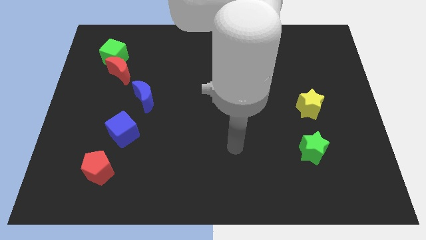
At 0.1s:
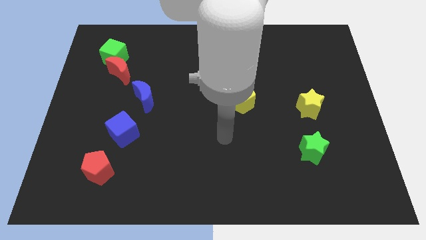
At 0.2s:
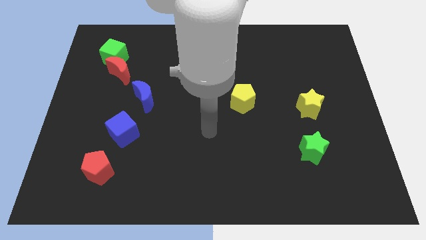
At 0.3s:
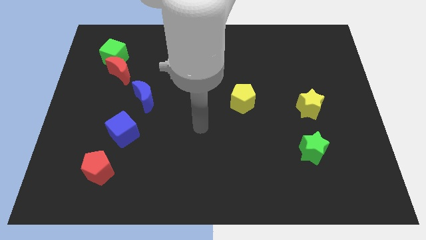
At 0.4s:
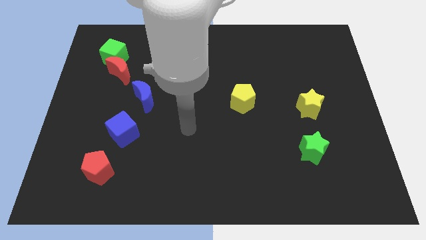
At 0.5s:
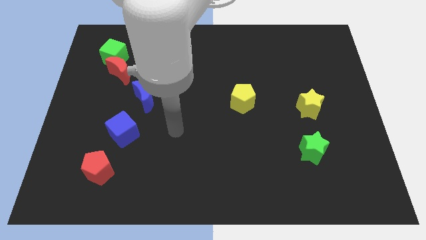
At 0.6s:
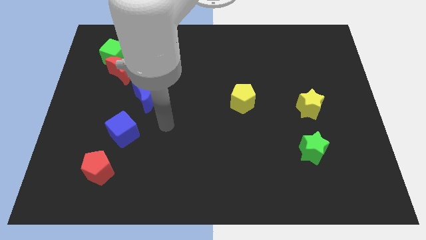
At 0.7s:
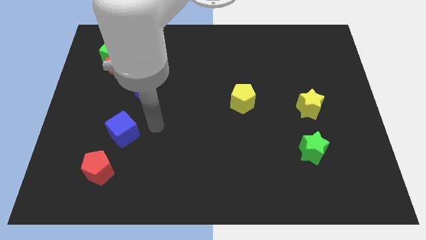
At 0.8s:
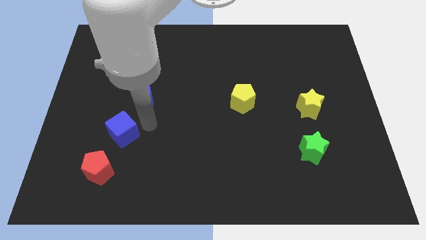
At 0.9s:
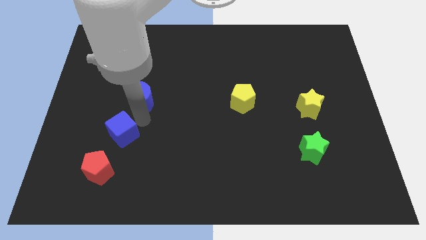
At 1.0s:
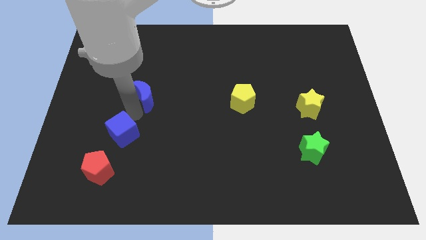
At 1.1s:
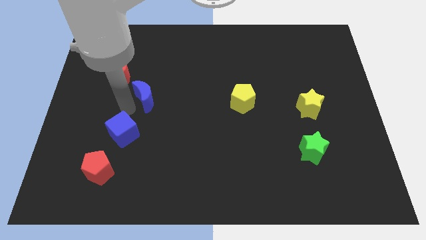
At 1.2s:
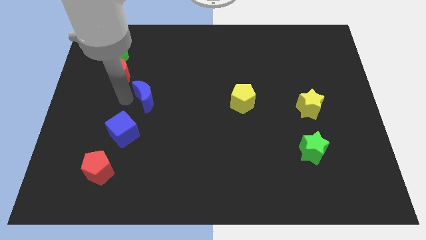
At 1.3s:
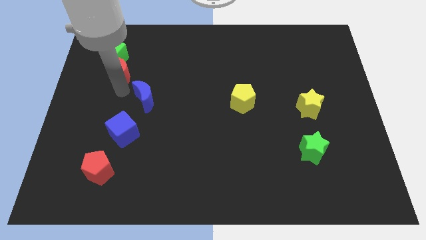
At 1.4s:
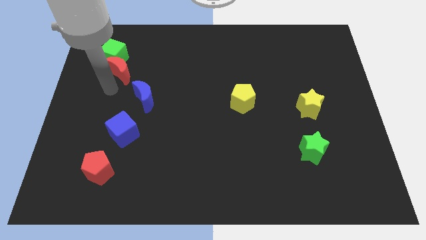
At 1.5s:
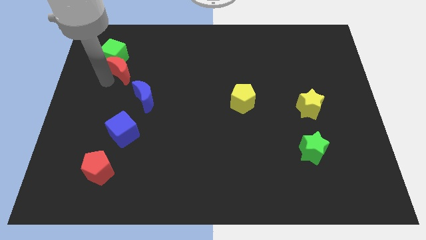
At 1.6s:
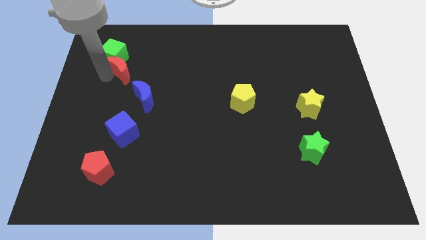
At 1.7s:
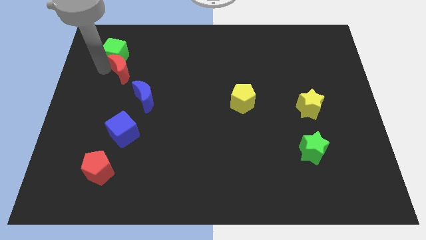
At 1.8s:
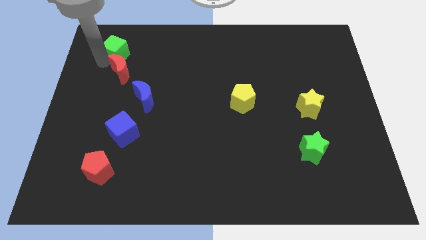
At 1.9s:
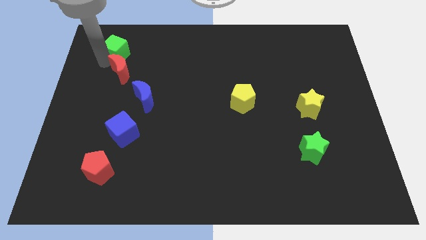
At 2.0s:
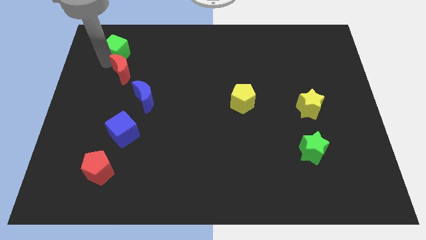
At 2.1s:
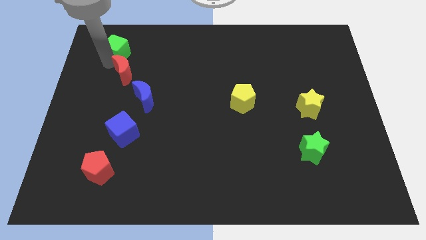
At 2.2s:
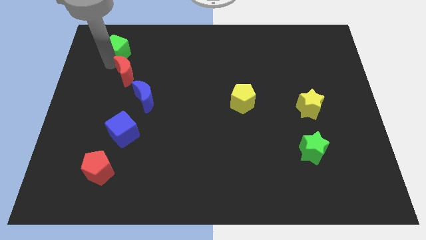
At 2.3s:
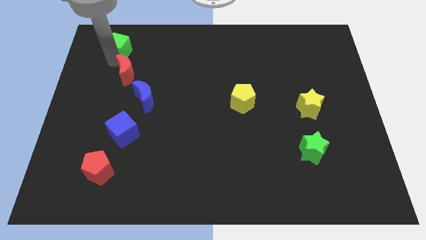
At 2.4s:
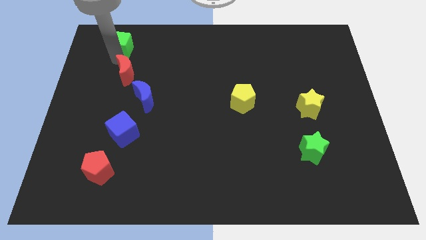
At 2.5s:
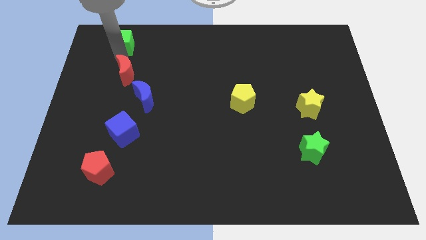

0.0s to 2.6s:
pull the red moon apart from the green cube

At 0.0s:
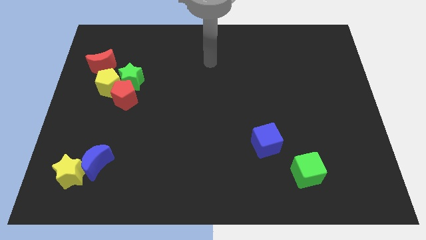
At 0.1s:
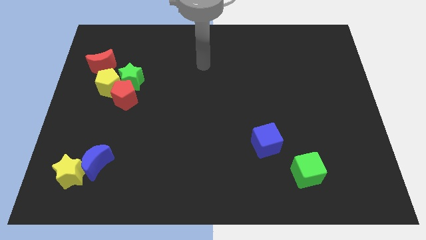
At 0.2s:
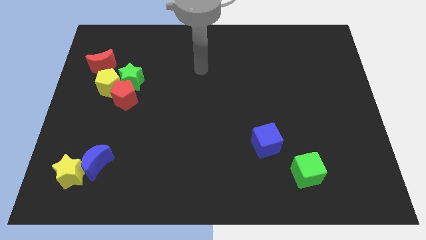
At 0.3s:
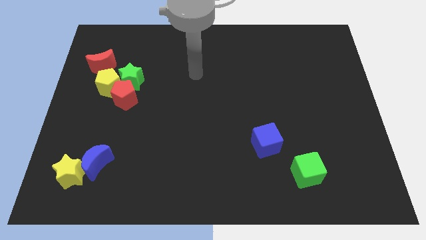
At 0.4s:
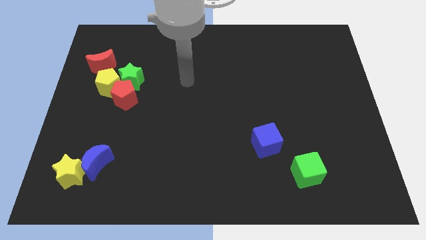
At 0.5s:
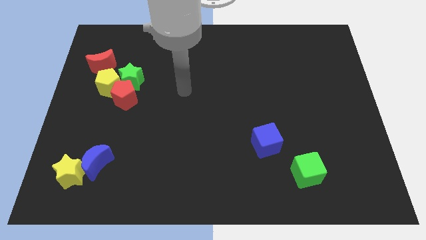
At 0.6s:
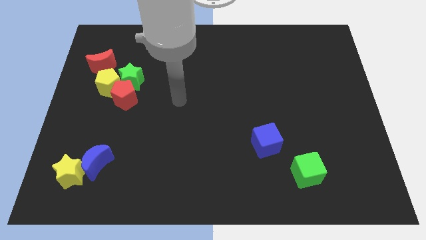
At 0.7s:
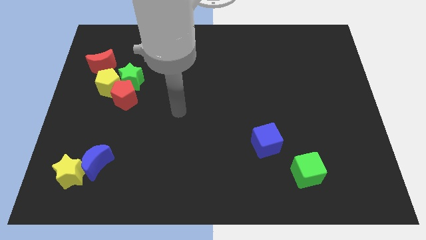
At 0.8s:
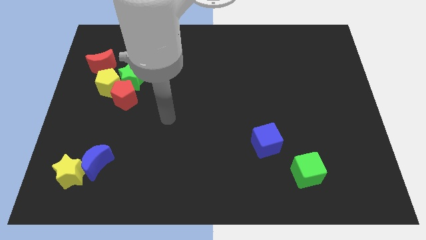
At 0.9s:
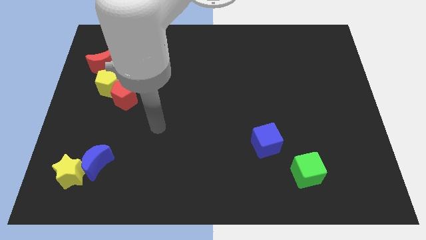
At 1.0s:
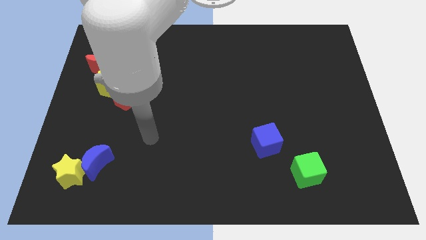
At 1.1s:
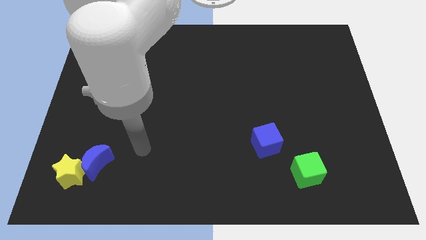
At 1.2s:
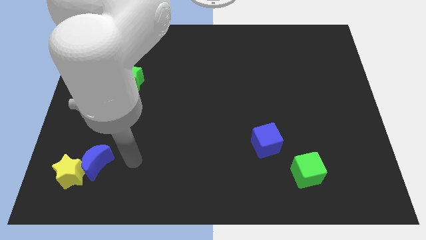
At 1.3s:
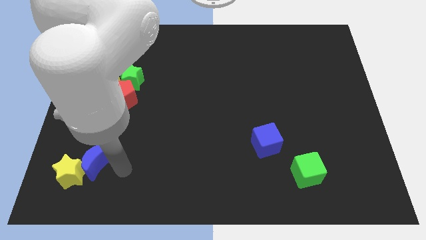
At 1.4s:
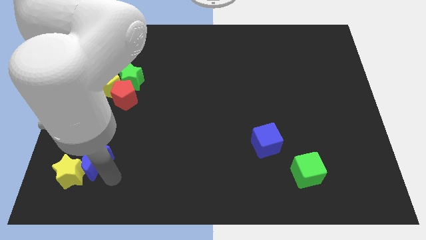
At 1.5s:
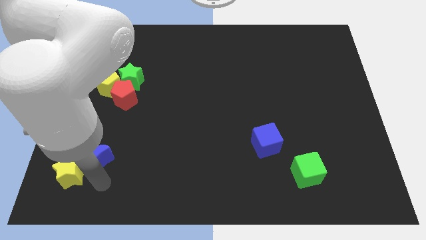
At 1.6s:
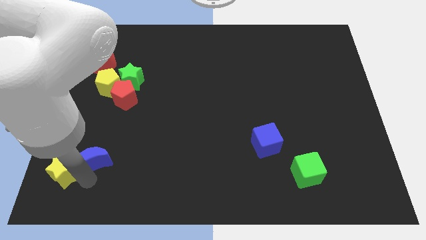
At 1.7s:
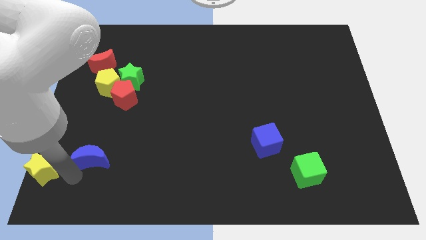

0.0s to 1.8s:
pull the blue moon apart from the yellow star

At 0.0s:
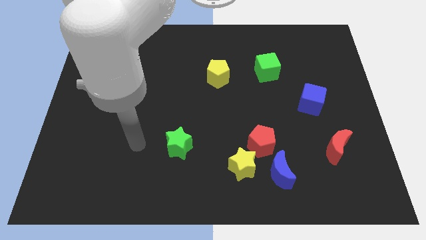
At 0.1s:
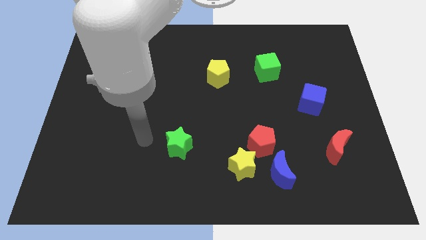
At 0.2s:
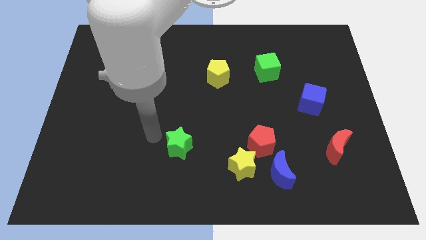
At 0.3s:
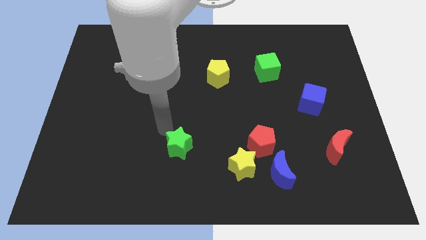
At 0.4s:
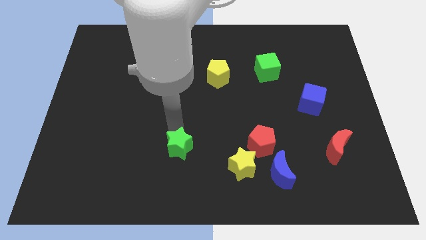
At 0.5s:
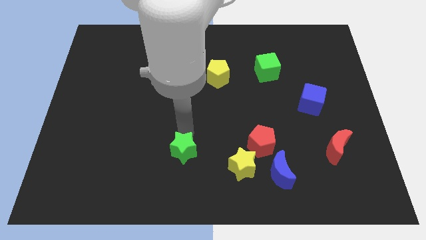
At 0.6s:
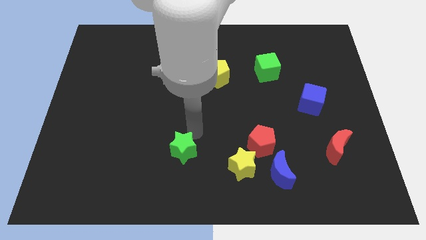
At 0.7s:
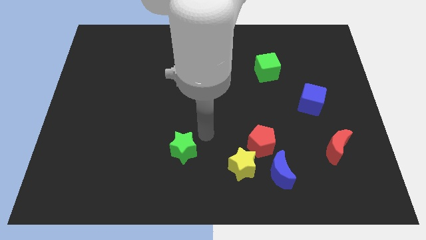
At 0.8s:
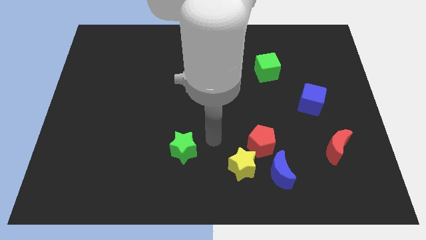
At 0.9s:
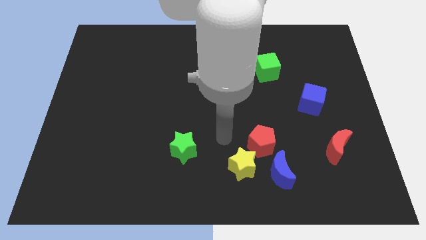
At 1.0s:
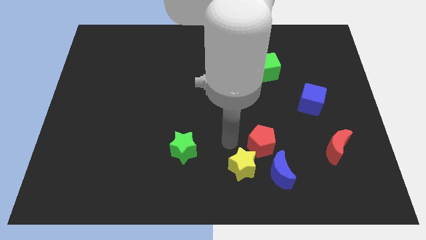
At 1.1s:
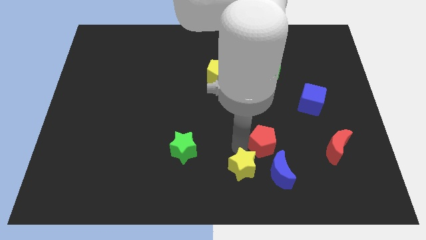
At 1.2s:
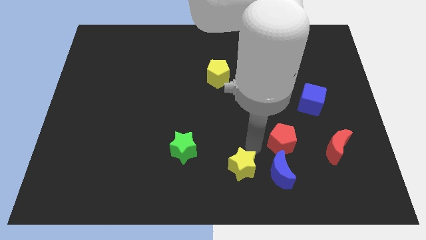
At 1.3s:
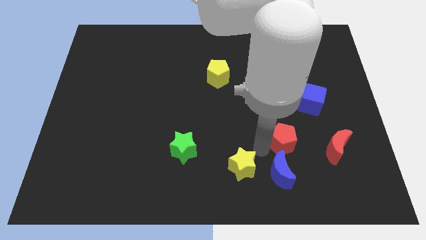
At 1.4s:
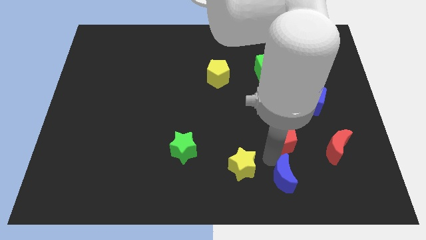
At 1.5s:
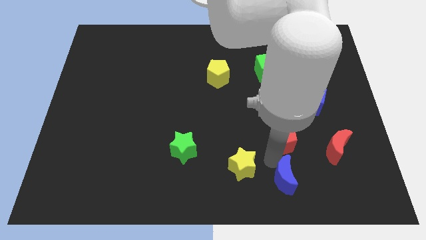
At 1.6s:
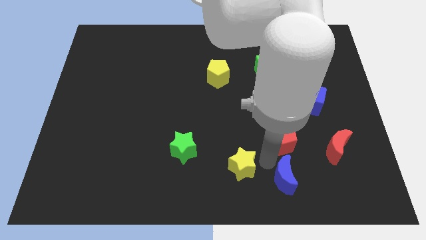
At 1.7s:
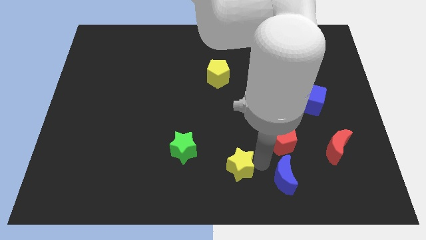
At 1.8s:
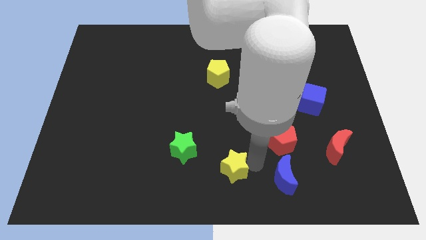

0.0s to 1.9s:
separate the yellow star from the red pentagon and blue moon

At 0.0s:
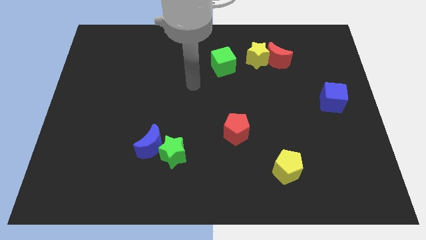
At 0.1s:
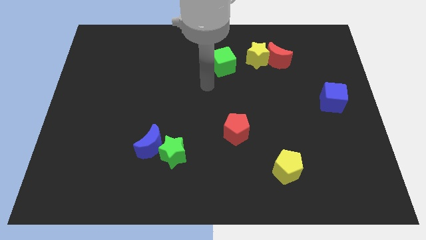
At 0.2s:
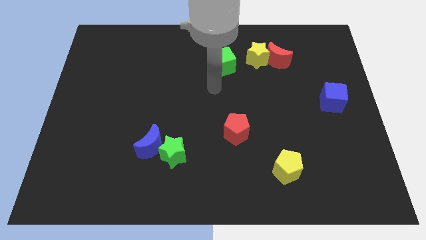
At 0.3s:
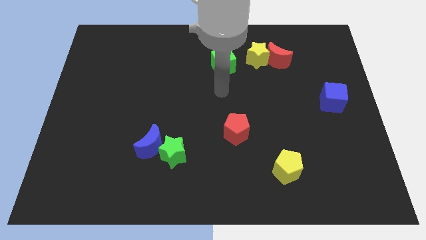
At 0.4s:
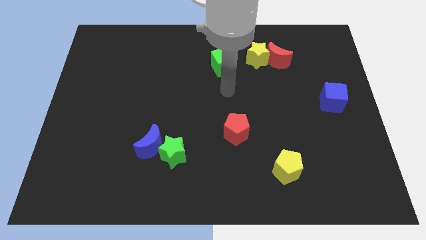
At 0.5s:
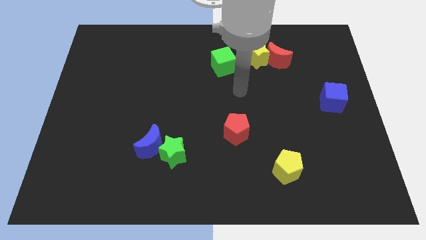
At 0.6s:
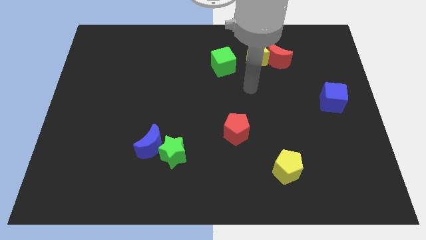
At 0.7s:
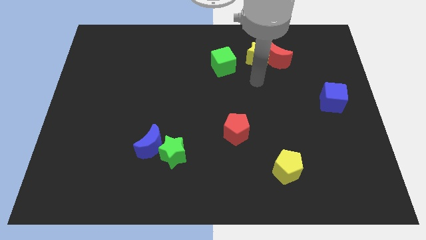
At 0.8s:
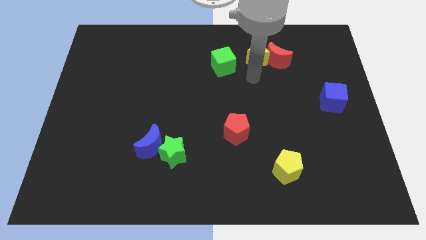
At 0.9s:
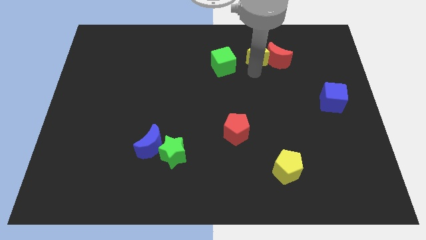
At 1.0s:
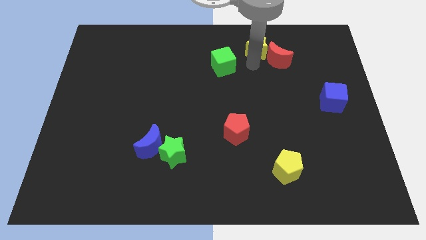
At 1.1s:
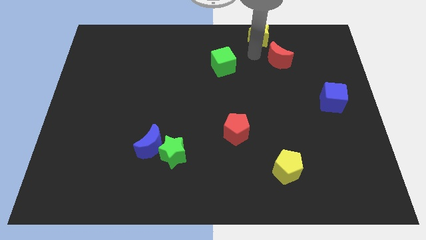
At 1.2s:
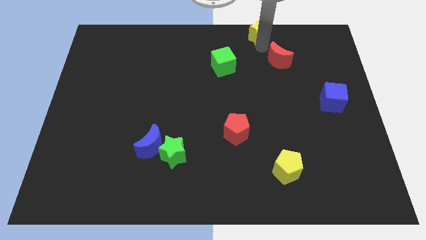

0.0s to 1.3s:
move the red moon away from the yellow star

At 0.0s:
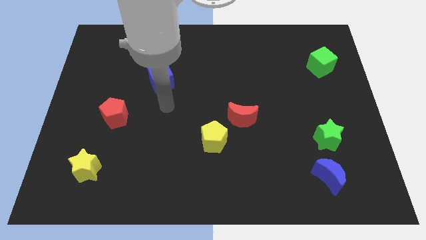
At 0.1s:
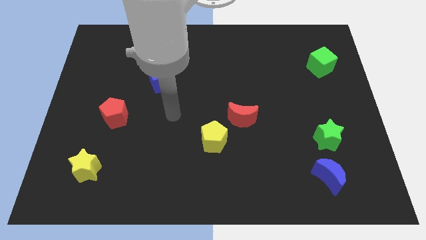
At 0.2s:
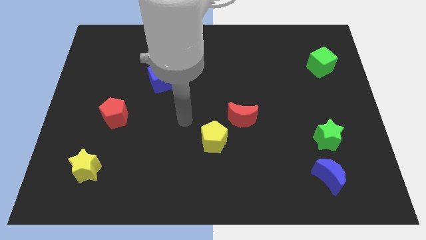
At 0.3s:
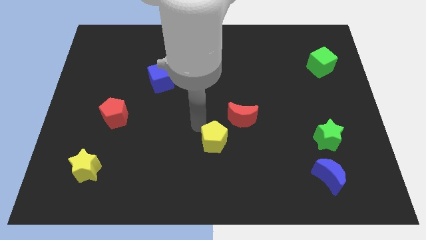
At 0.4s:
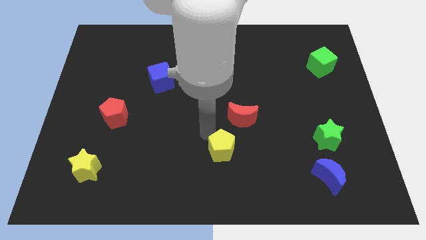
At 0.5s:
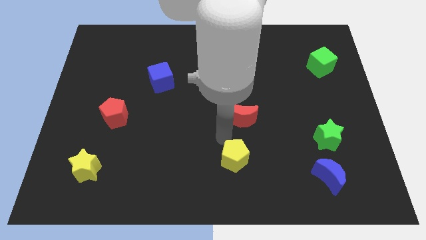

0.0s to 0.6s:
separate the red moon from the yellow pentagon

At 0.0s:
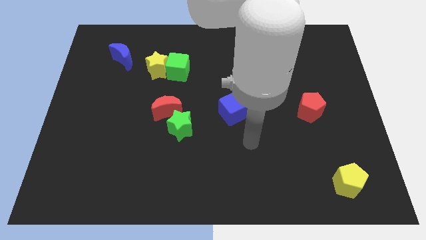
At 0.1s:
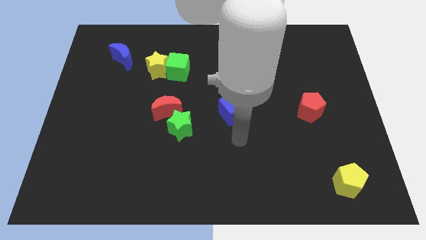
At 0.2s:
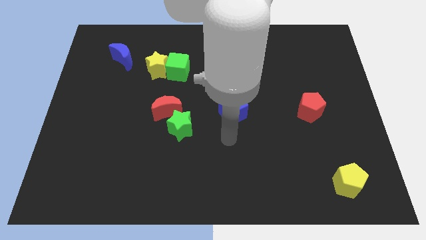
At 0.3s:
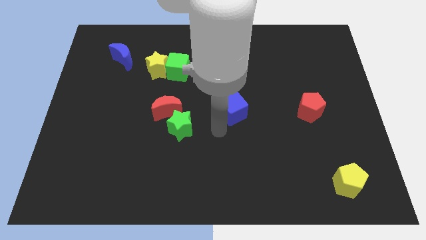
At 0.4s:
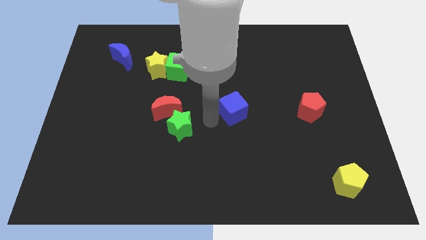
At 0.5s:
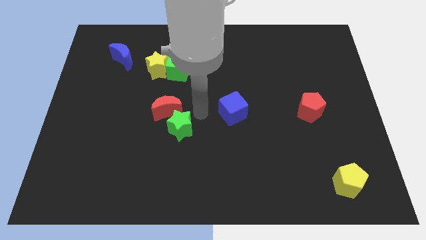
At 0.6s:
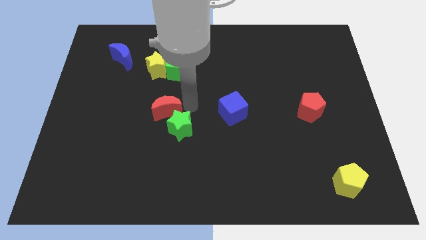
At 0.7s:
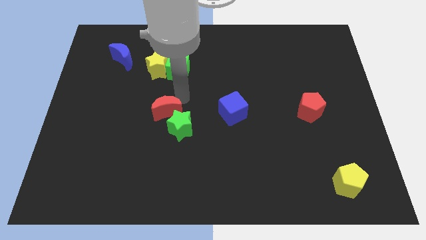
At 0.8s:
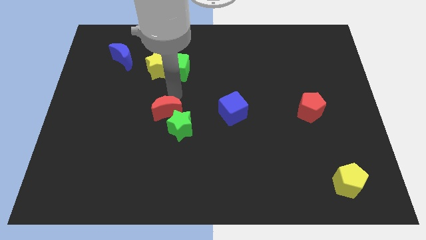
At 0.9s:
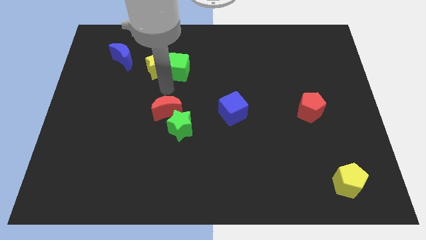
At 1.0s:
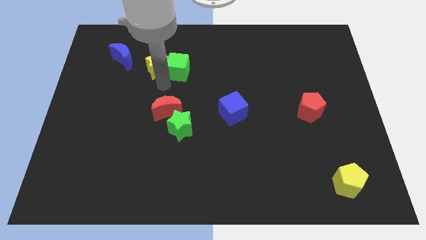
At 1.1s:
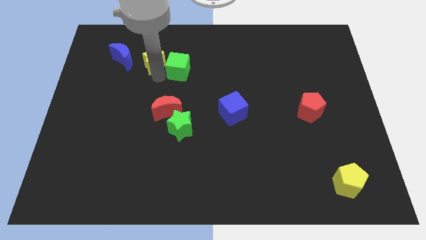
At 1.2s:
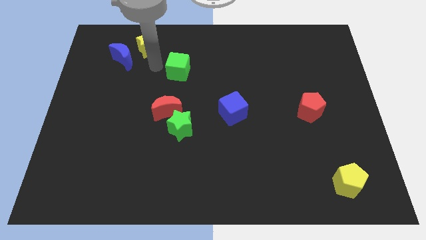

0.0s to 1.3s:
move the green cube away from the yellow star
